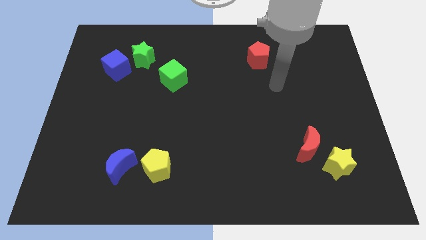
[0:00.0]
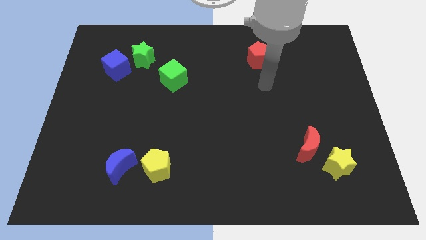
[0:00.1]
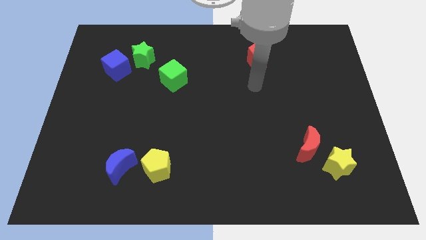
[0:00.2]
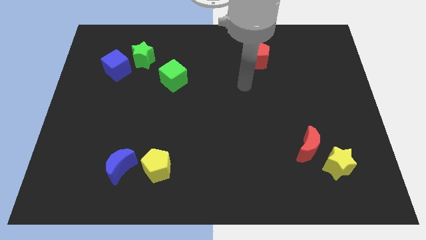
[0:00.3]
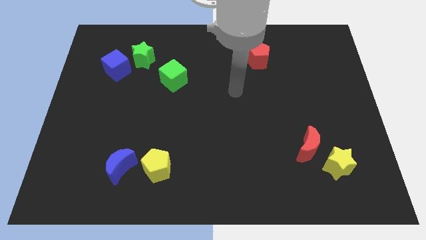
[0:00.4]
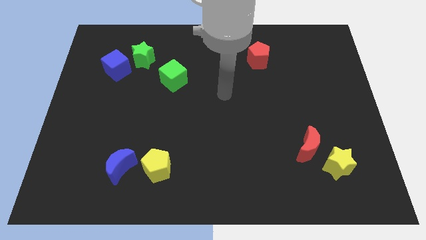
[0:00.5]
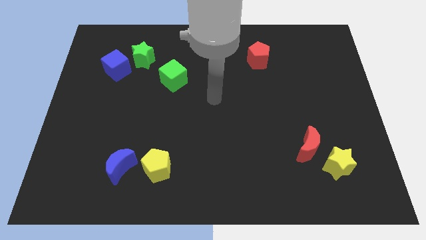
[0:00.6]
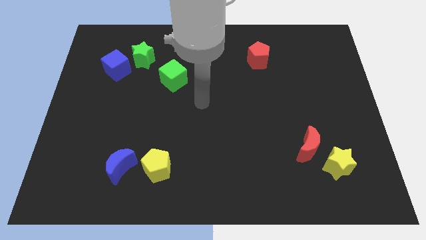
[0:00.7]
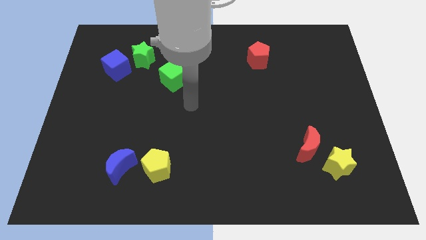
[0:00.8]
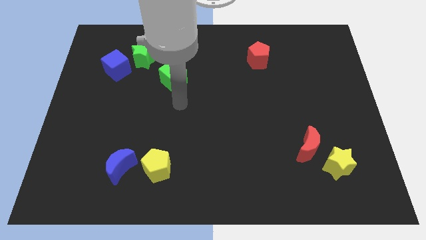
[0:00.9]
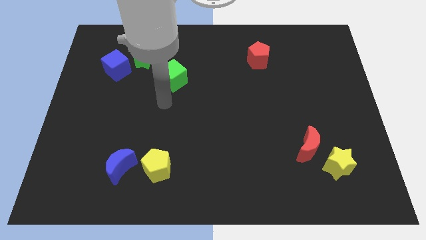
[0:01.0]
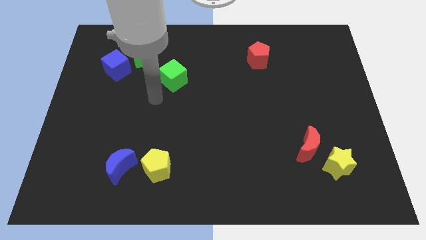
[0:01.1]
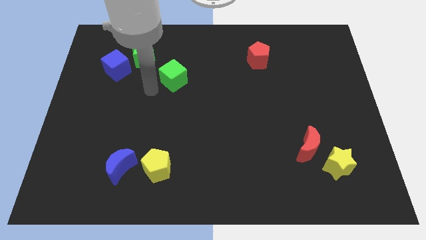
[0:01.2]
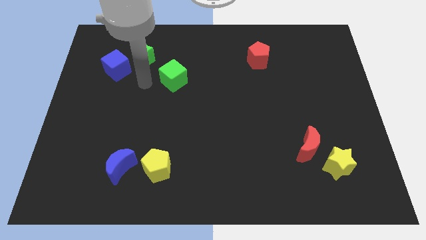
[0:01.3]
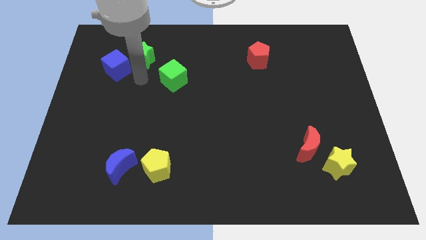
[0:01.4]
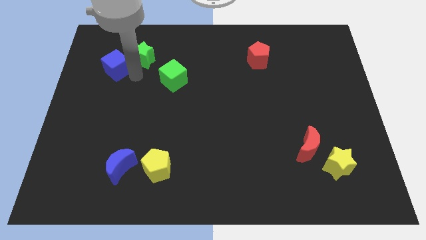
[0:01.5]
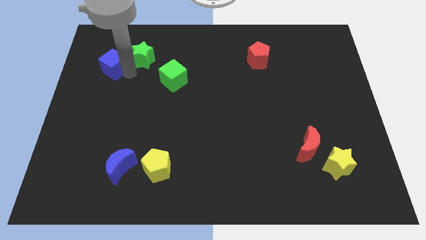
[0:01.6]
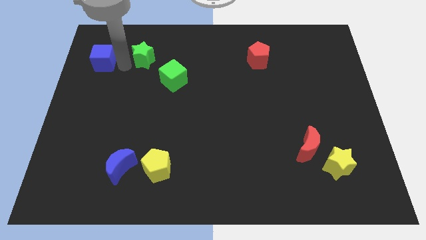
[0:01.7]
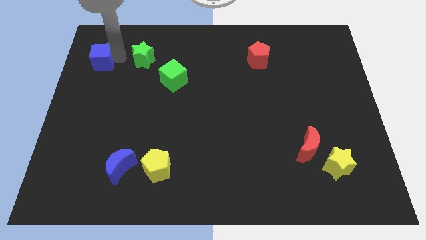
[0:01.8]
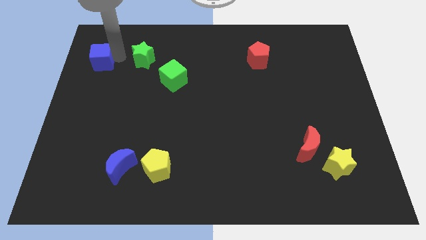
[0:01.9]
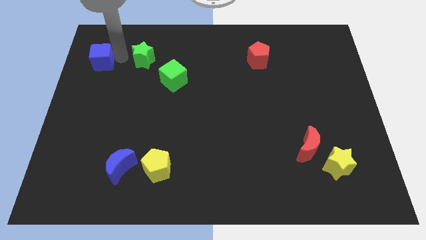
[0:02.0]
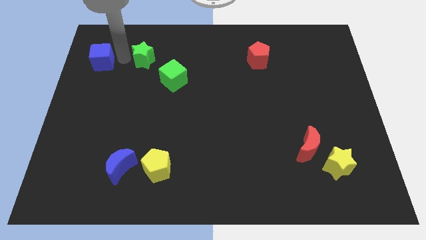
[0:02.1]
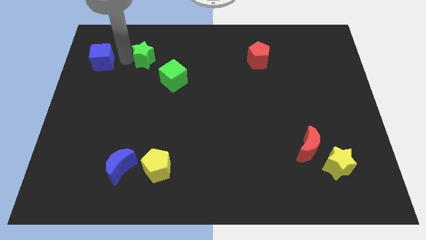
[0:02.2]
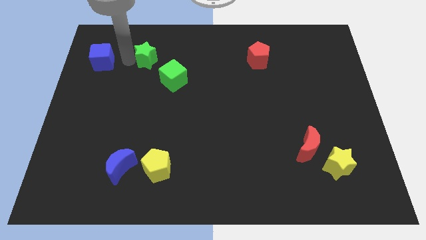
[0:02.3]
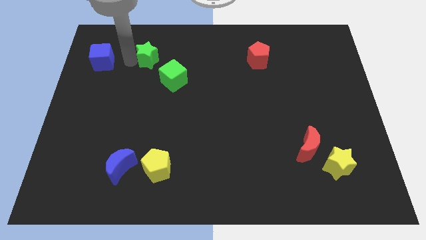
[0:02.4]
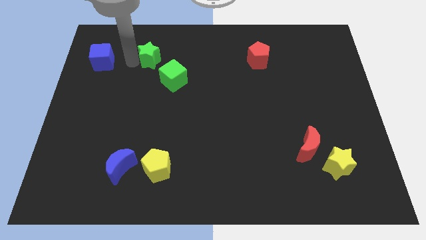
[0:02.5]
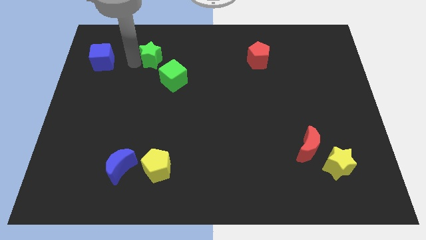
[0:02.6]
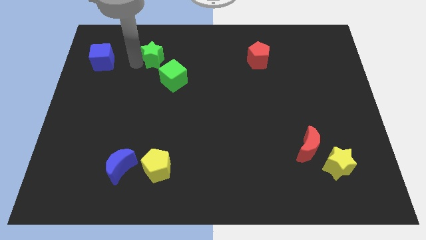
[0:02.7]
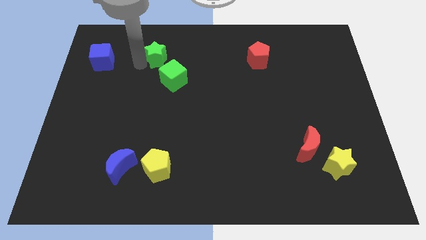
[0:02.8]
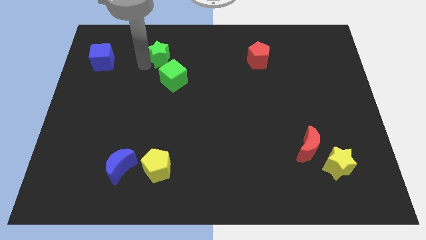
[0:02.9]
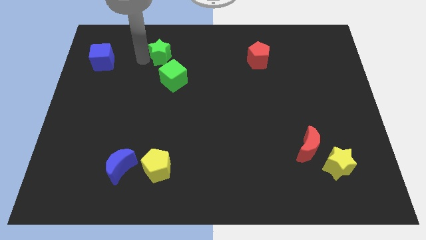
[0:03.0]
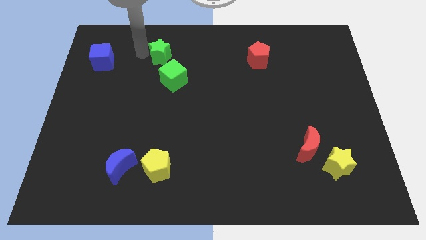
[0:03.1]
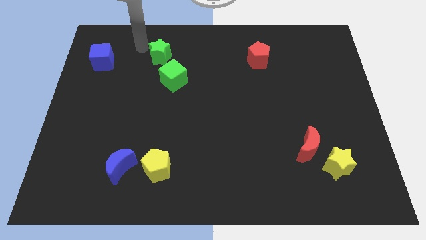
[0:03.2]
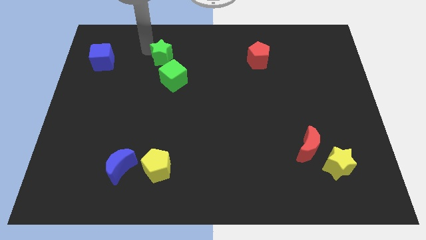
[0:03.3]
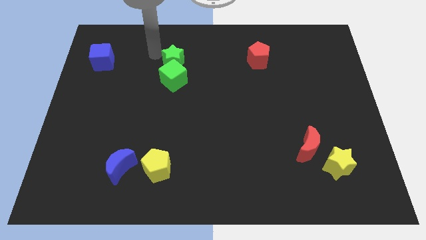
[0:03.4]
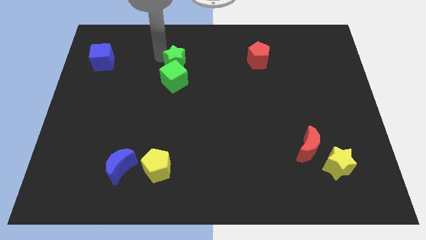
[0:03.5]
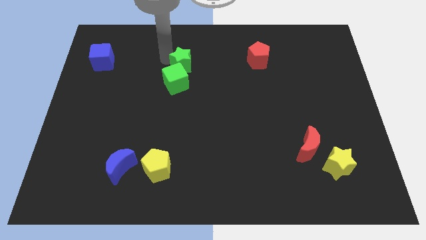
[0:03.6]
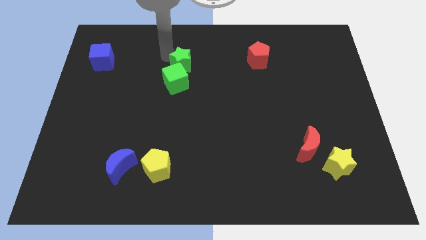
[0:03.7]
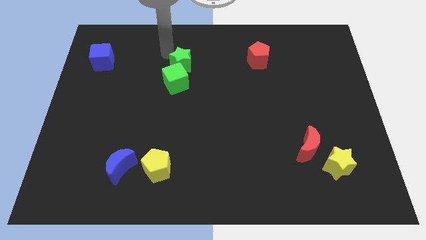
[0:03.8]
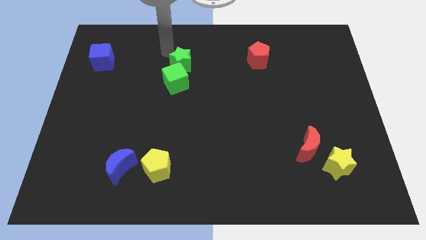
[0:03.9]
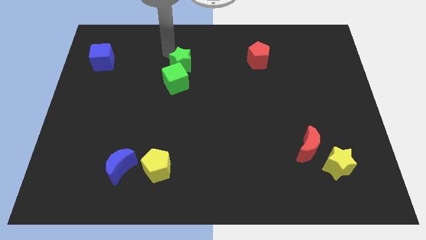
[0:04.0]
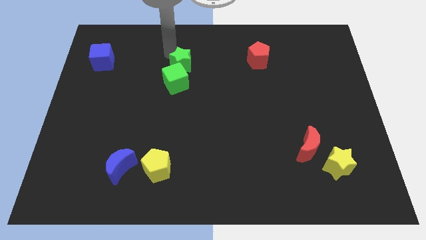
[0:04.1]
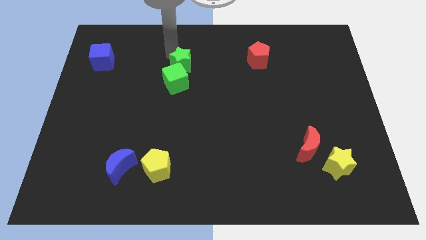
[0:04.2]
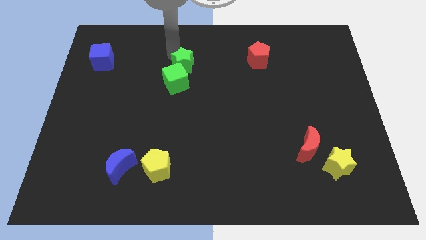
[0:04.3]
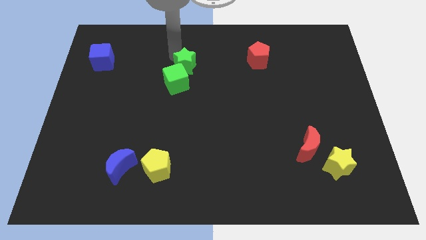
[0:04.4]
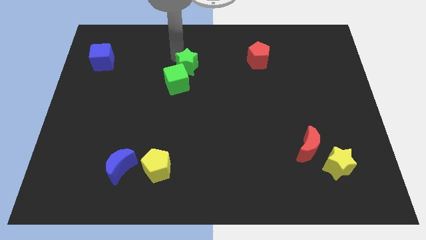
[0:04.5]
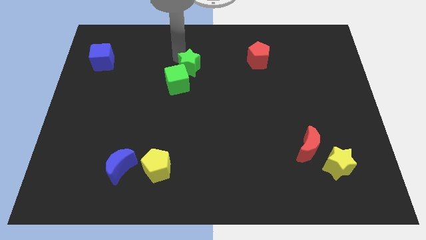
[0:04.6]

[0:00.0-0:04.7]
move the green star to the middle of the board

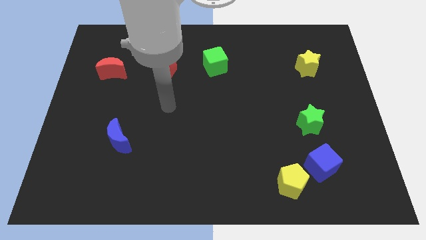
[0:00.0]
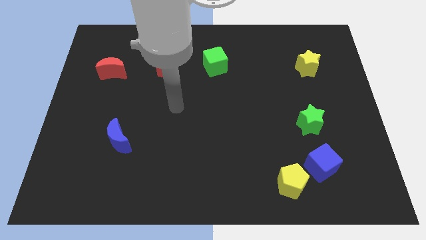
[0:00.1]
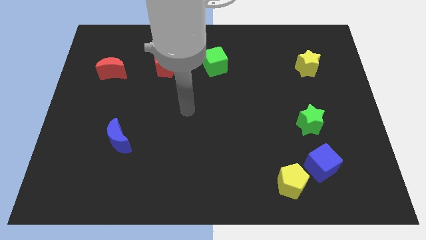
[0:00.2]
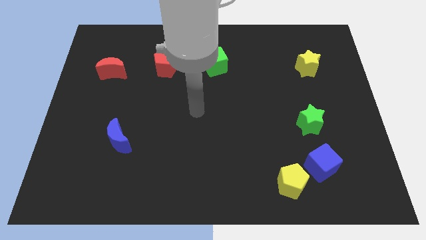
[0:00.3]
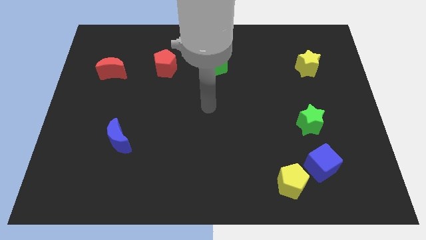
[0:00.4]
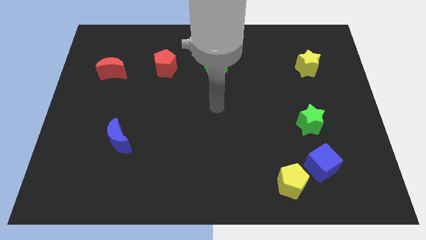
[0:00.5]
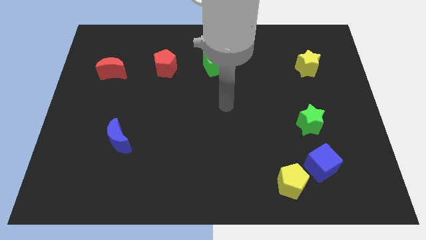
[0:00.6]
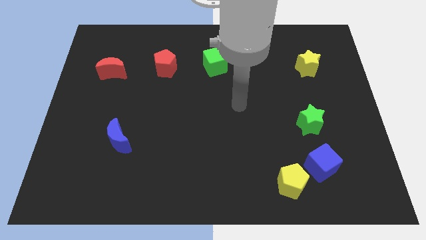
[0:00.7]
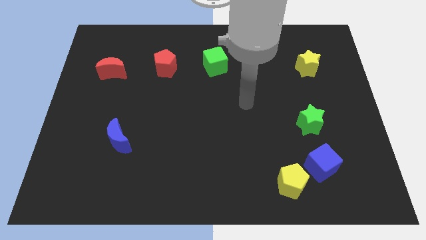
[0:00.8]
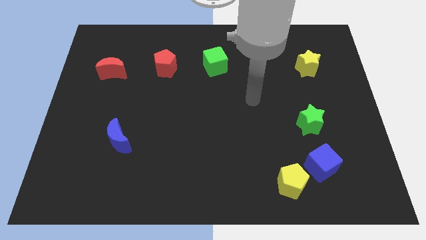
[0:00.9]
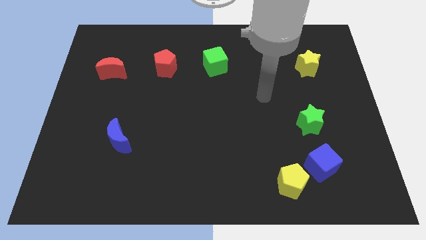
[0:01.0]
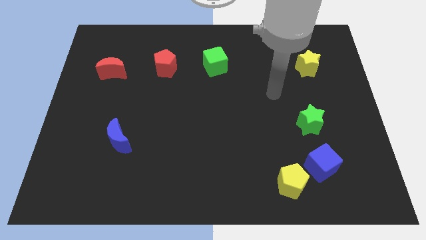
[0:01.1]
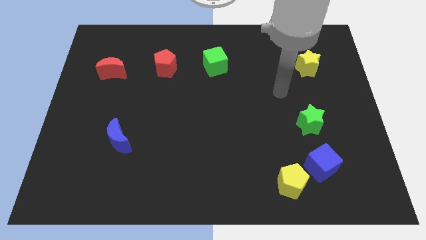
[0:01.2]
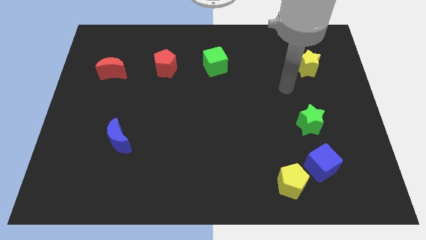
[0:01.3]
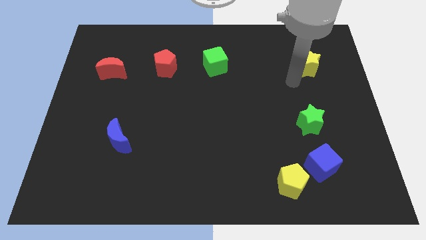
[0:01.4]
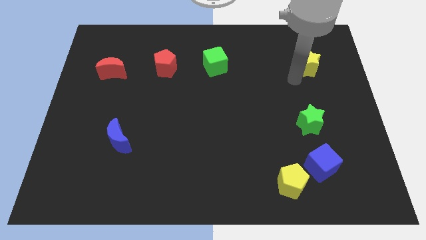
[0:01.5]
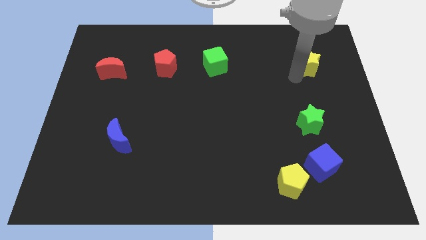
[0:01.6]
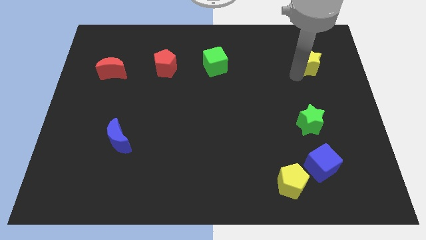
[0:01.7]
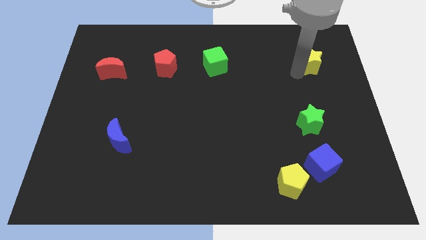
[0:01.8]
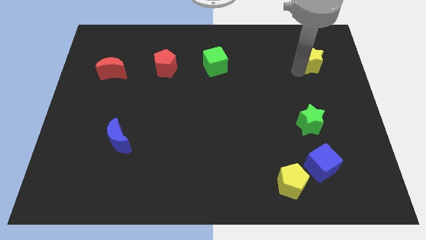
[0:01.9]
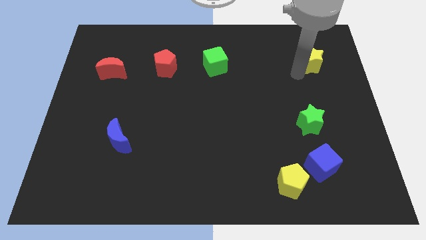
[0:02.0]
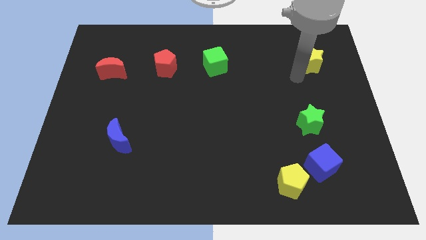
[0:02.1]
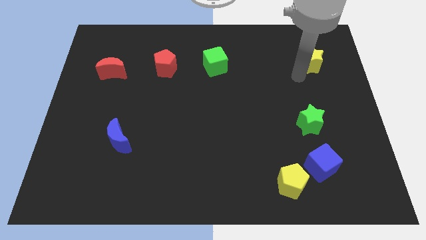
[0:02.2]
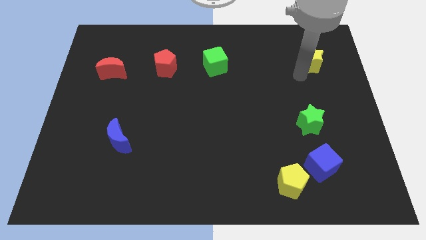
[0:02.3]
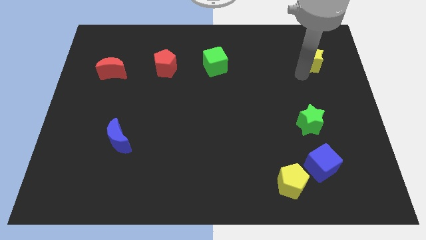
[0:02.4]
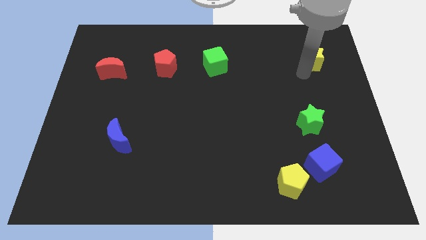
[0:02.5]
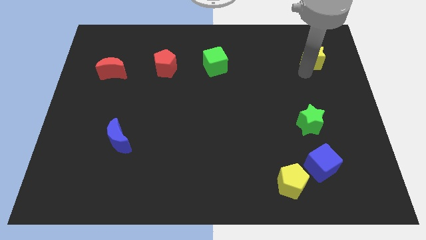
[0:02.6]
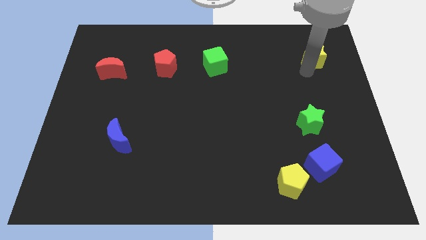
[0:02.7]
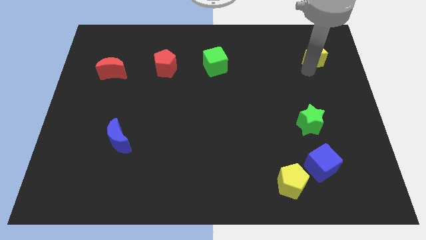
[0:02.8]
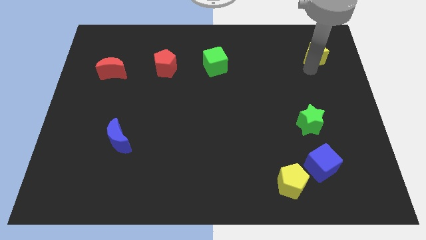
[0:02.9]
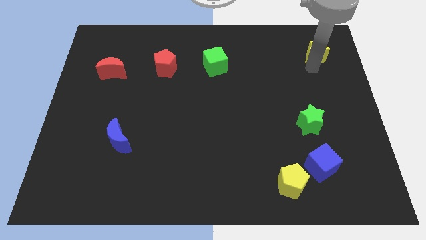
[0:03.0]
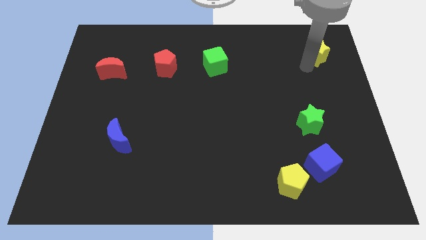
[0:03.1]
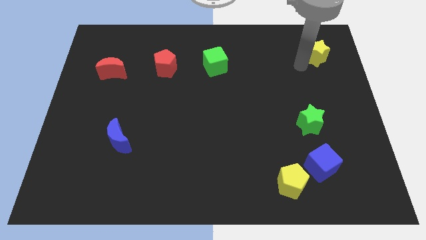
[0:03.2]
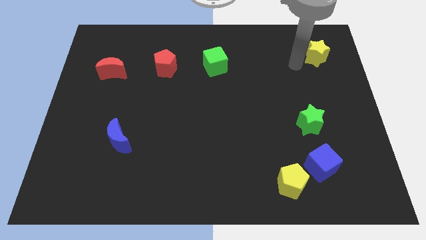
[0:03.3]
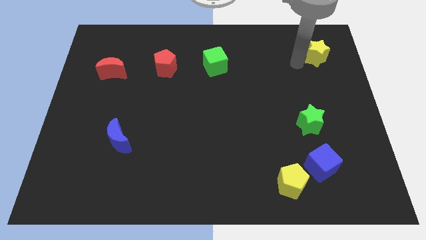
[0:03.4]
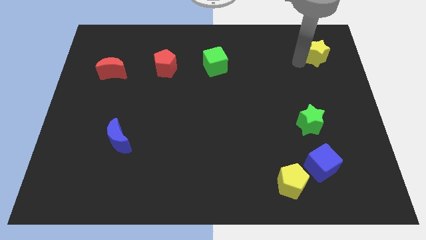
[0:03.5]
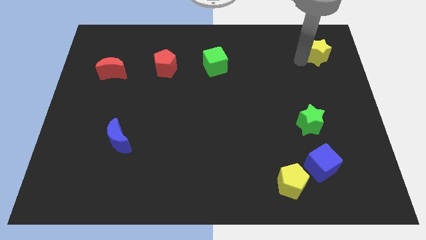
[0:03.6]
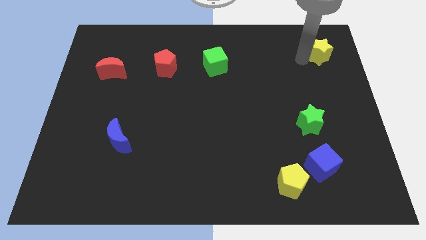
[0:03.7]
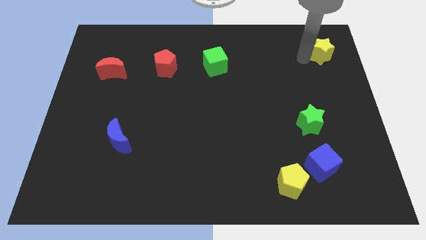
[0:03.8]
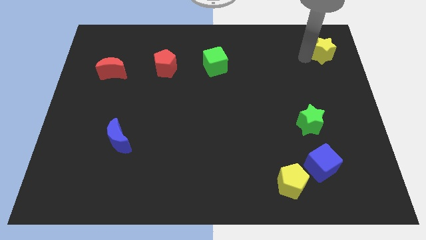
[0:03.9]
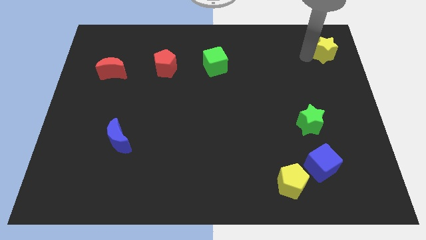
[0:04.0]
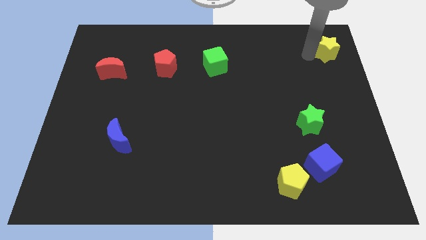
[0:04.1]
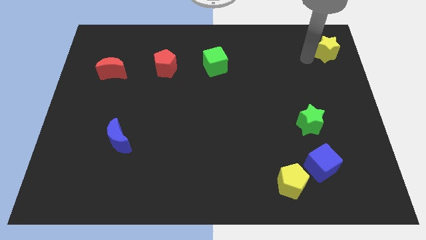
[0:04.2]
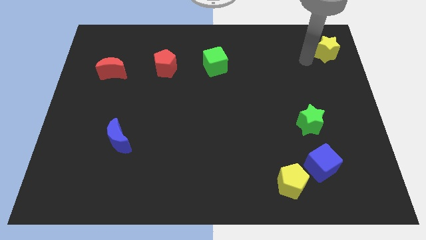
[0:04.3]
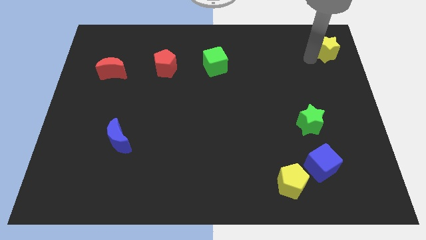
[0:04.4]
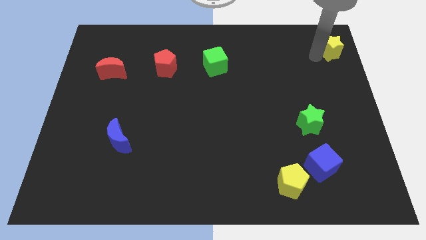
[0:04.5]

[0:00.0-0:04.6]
put the yellow star to the top right
